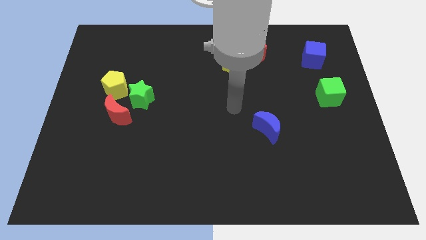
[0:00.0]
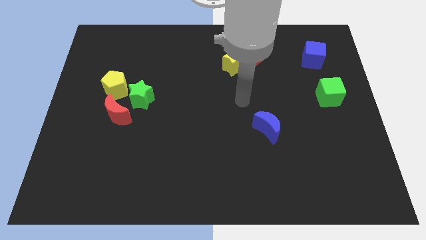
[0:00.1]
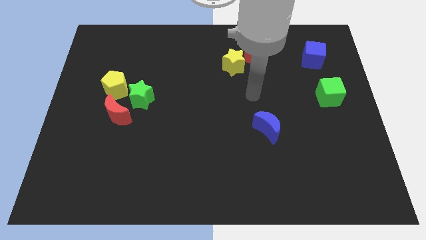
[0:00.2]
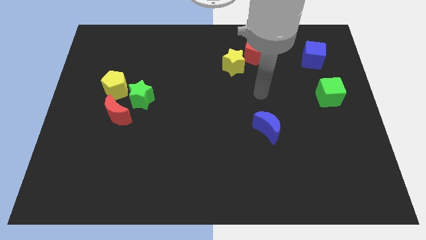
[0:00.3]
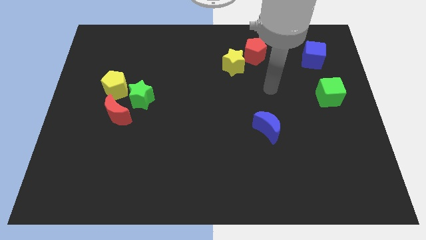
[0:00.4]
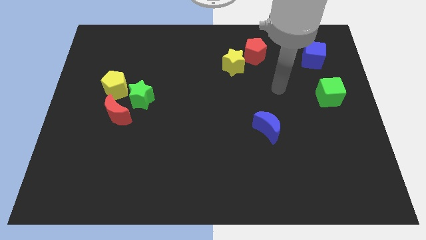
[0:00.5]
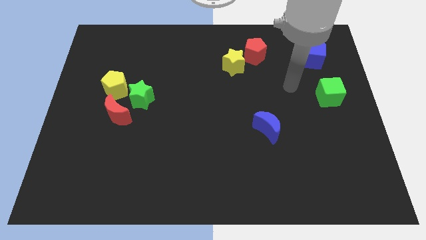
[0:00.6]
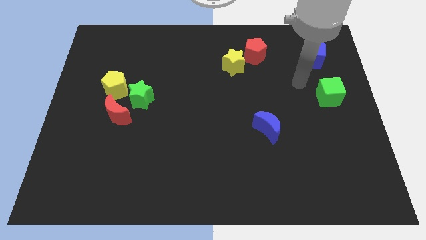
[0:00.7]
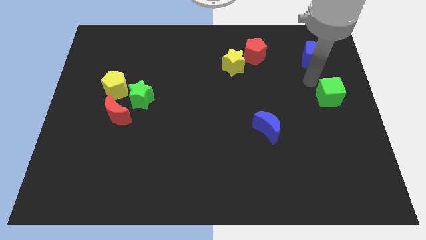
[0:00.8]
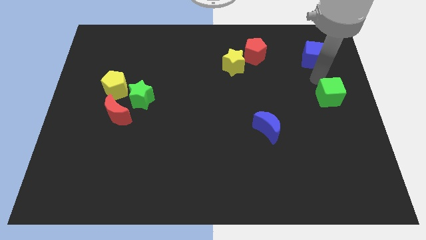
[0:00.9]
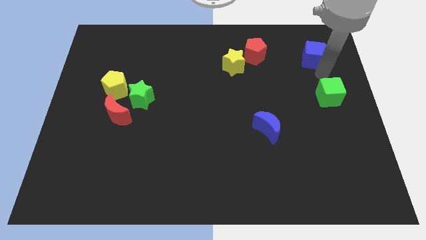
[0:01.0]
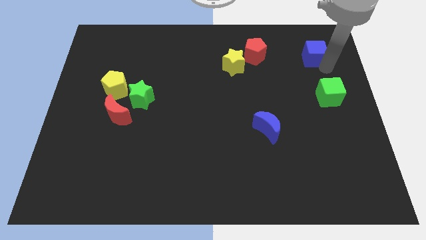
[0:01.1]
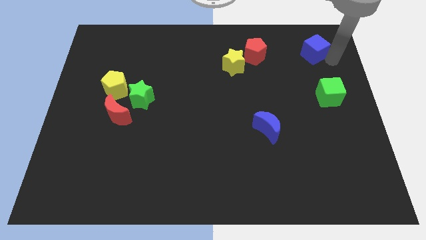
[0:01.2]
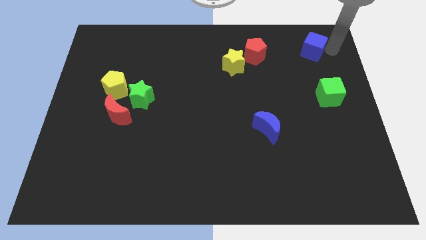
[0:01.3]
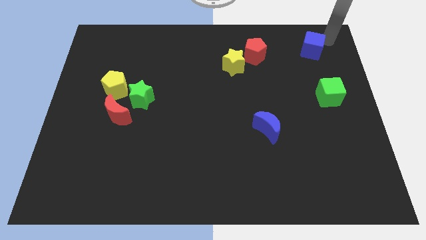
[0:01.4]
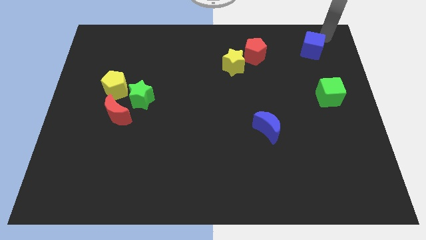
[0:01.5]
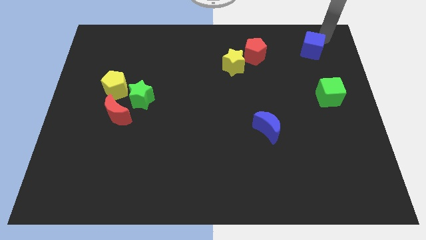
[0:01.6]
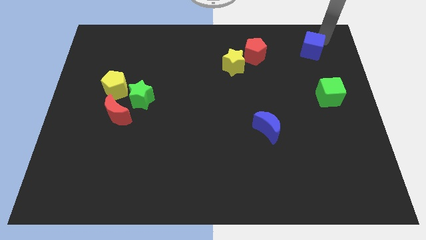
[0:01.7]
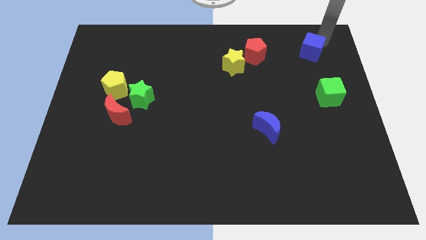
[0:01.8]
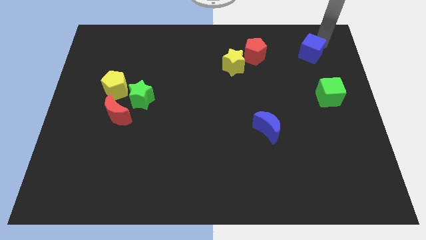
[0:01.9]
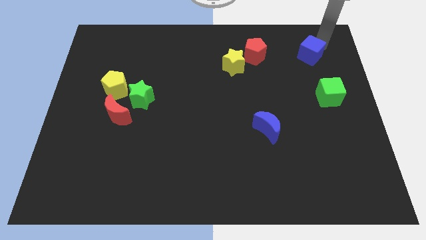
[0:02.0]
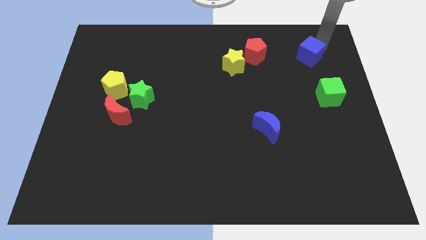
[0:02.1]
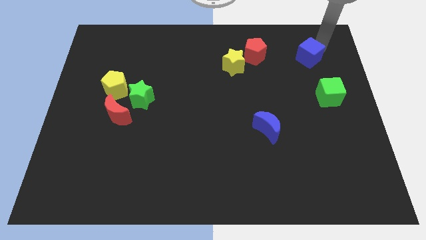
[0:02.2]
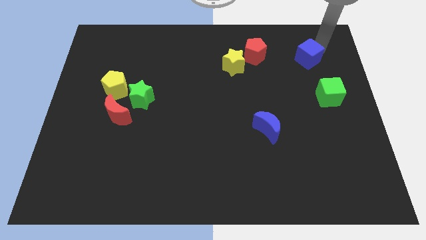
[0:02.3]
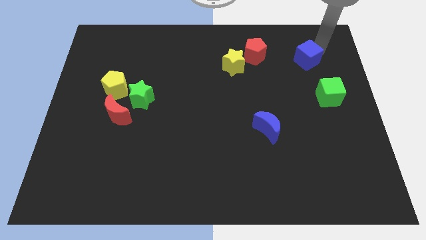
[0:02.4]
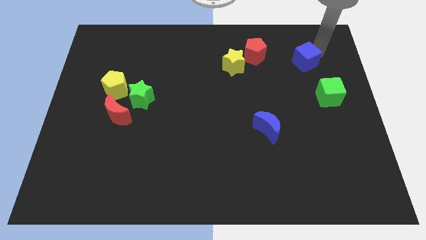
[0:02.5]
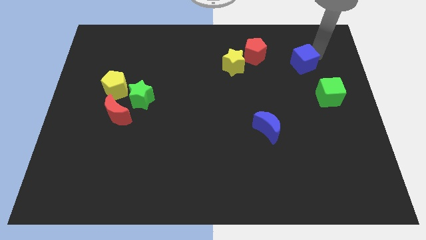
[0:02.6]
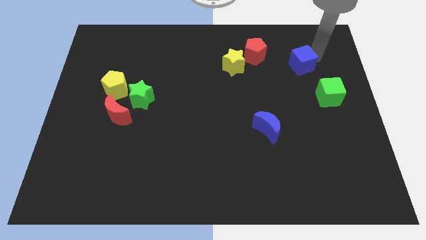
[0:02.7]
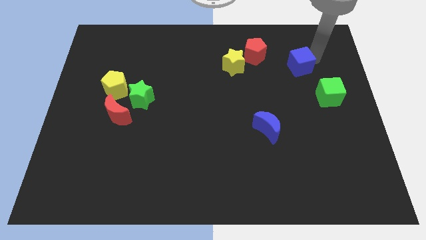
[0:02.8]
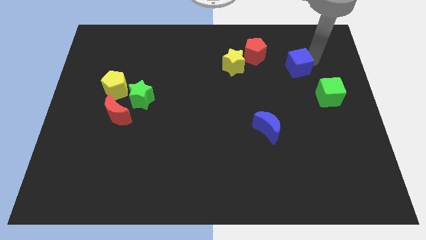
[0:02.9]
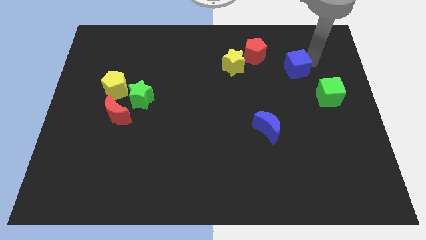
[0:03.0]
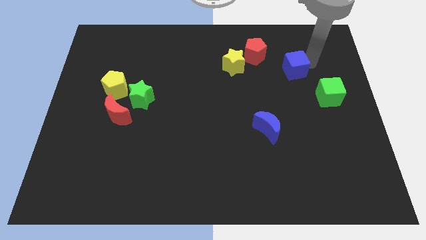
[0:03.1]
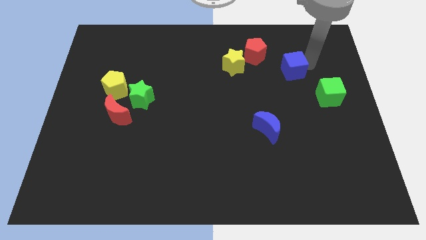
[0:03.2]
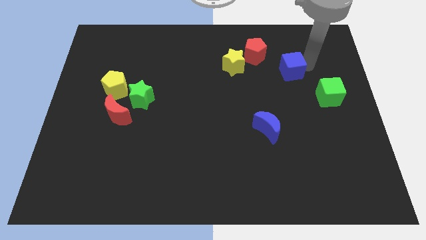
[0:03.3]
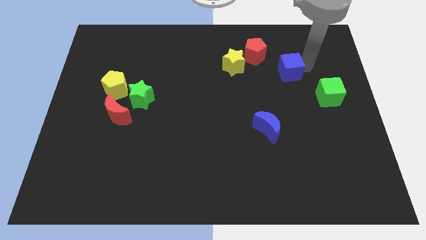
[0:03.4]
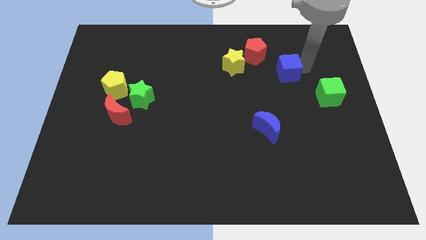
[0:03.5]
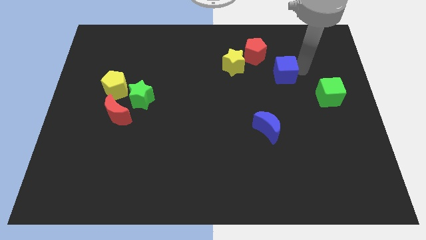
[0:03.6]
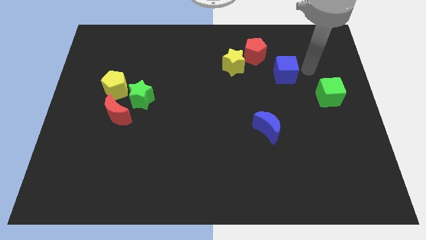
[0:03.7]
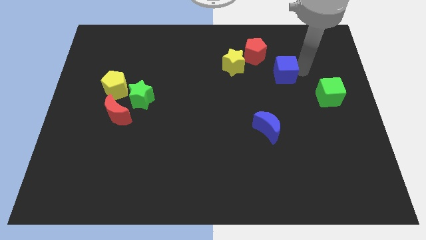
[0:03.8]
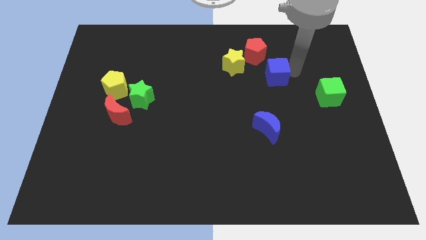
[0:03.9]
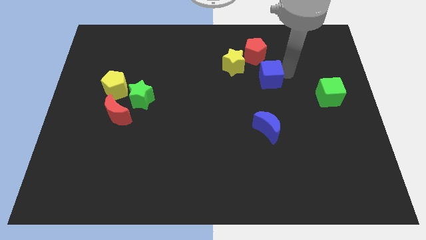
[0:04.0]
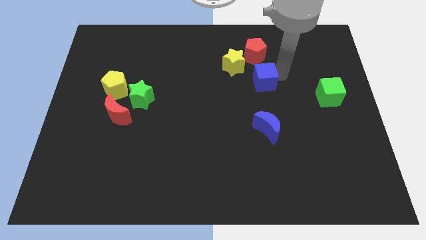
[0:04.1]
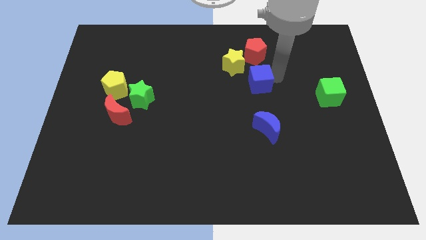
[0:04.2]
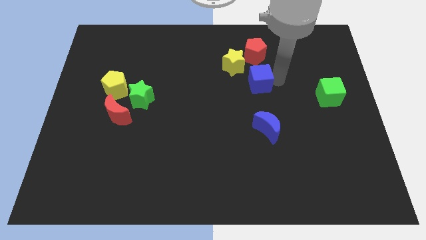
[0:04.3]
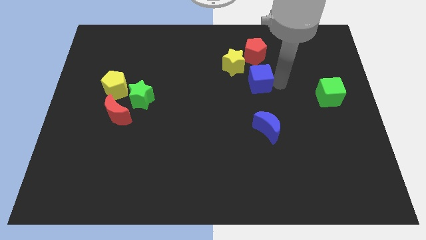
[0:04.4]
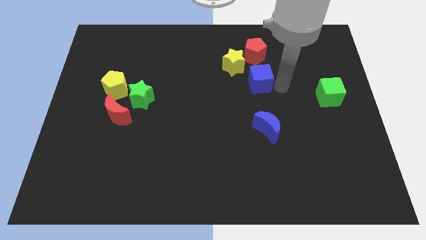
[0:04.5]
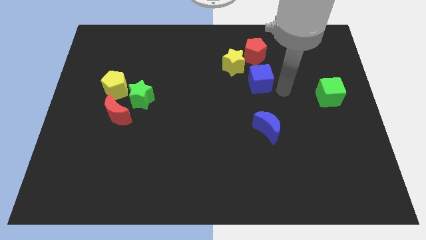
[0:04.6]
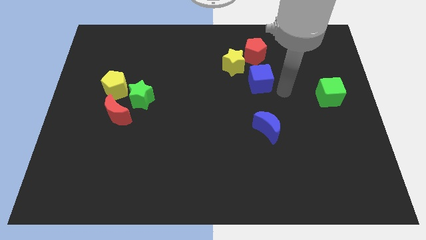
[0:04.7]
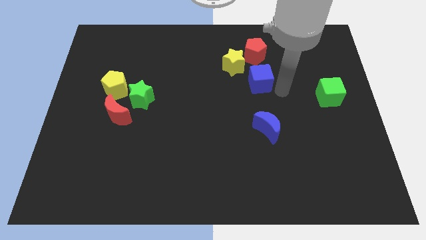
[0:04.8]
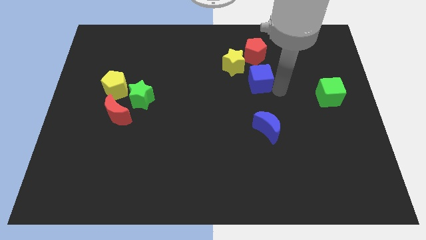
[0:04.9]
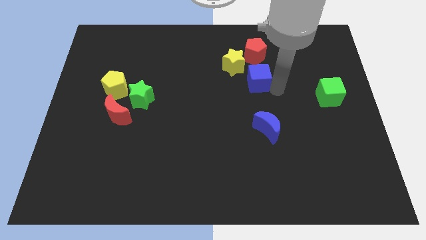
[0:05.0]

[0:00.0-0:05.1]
move the blue cube to the middle

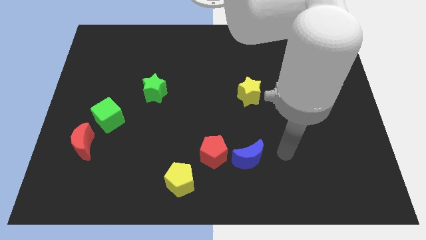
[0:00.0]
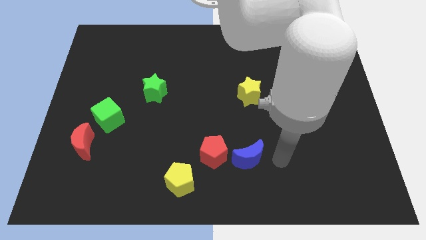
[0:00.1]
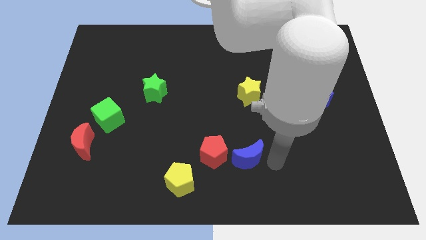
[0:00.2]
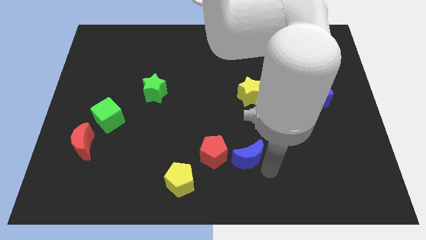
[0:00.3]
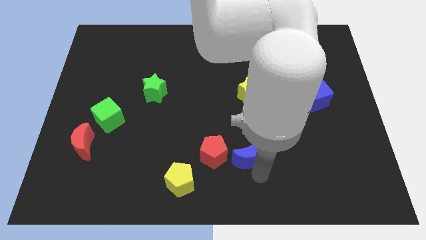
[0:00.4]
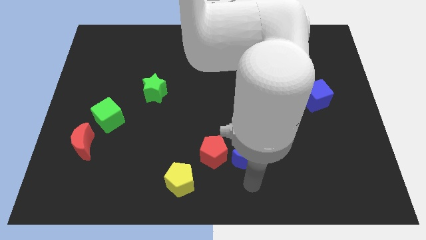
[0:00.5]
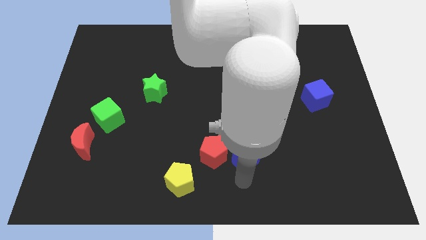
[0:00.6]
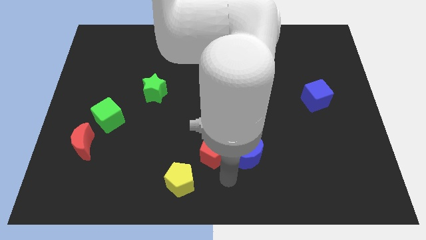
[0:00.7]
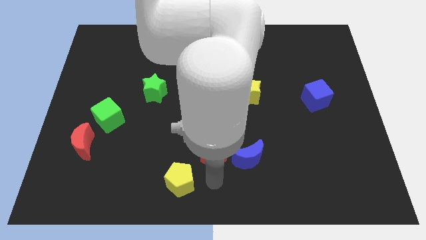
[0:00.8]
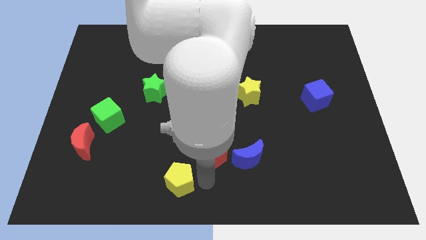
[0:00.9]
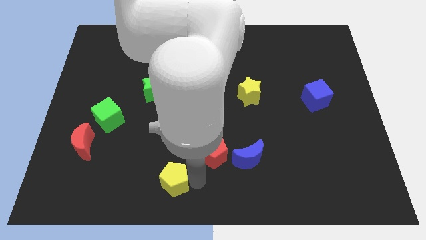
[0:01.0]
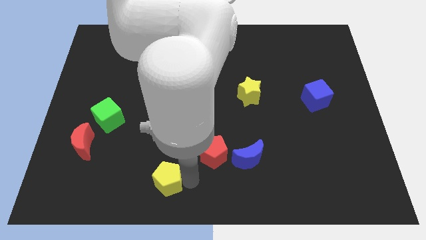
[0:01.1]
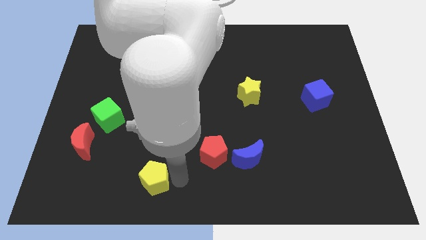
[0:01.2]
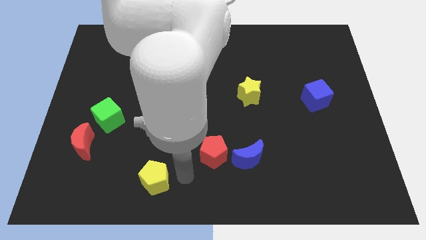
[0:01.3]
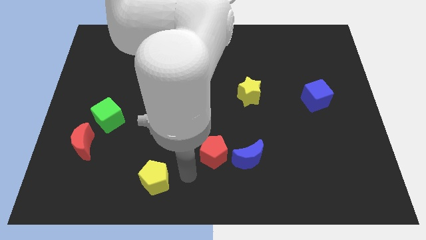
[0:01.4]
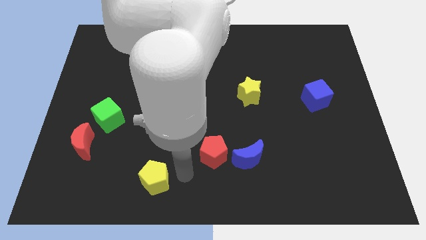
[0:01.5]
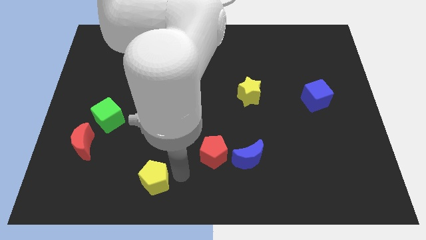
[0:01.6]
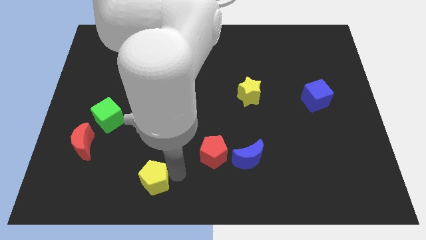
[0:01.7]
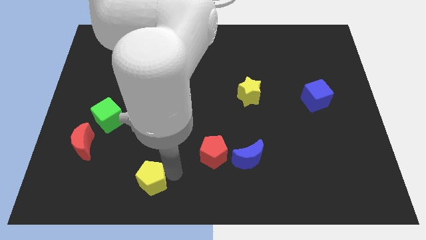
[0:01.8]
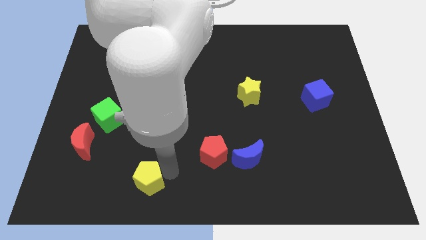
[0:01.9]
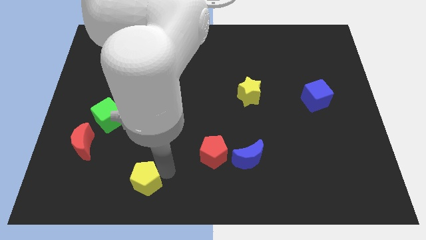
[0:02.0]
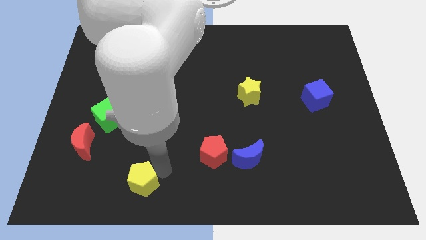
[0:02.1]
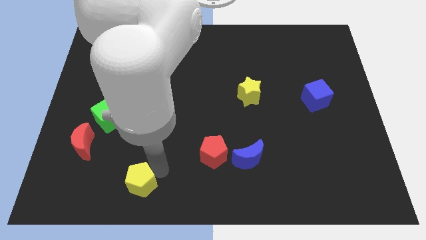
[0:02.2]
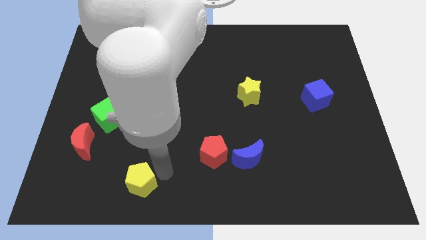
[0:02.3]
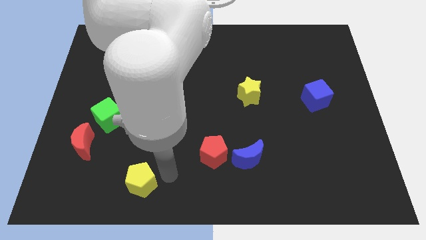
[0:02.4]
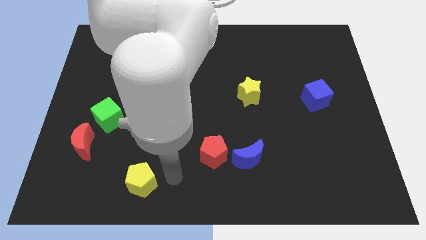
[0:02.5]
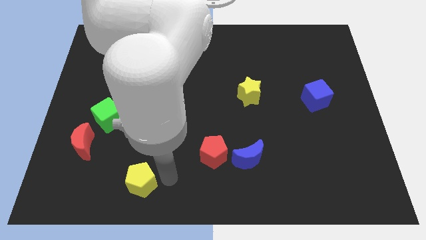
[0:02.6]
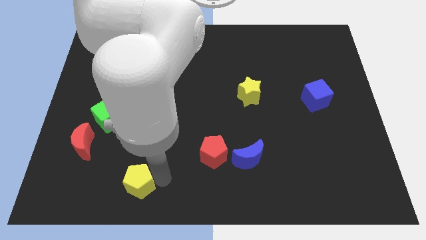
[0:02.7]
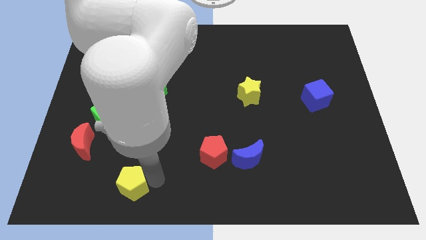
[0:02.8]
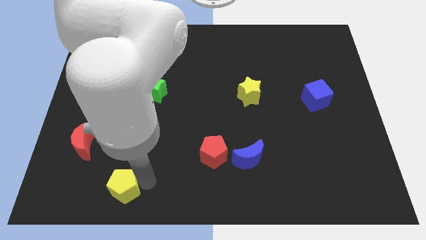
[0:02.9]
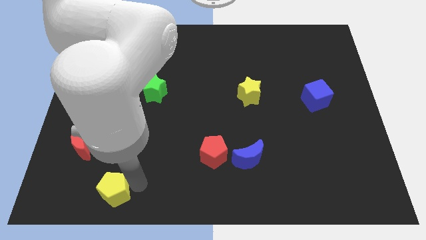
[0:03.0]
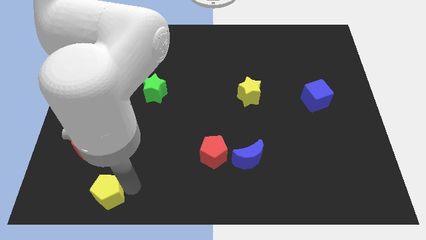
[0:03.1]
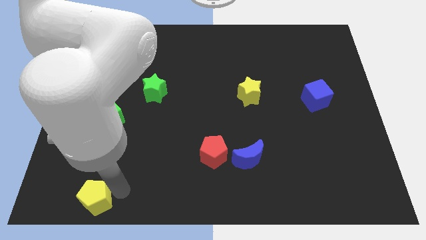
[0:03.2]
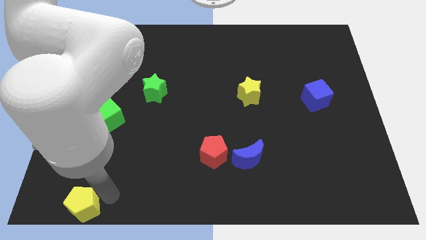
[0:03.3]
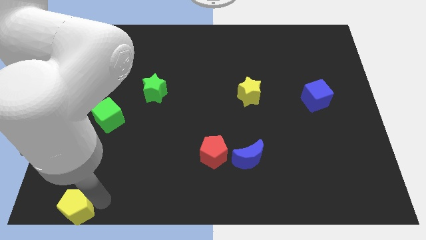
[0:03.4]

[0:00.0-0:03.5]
put the yellow pentagon to the bottom left
